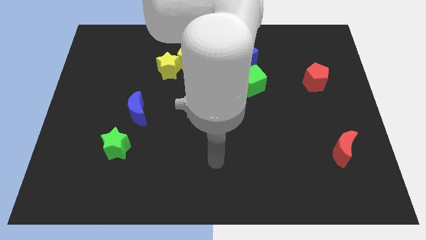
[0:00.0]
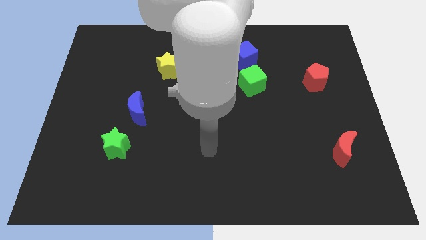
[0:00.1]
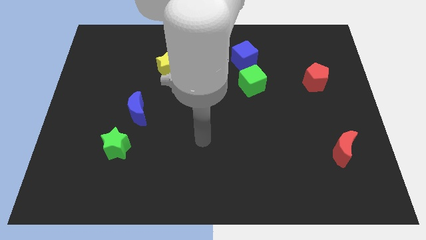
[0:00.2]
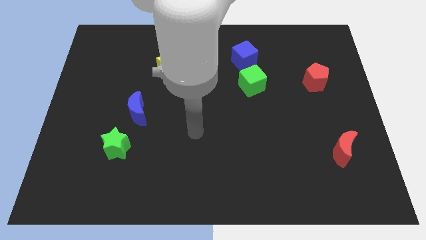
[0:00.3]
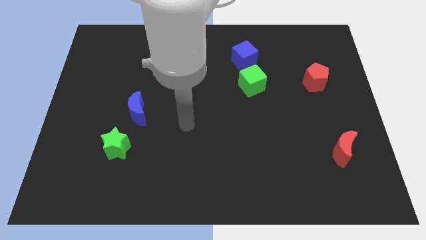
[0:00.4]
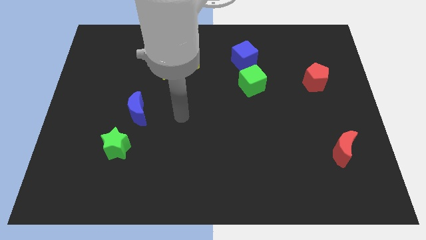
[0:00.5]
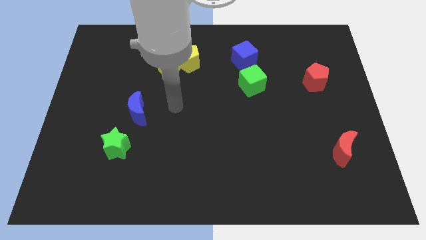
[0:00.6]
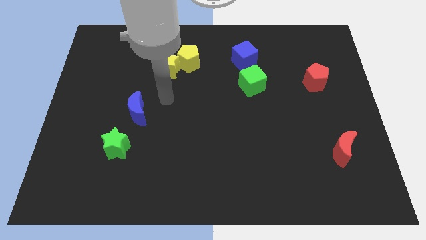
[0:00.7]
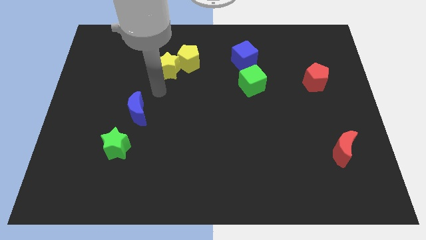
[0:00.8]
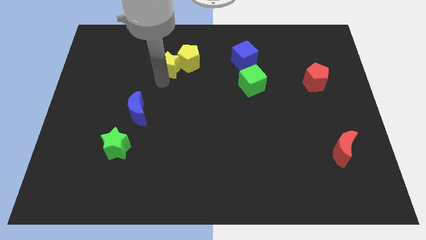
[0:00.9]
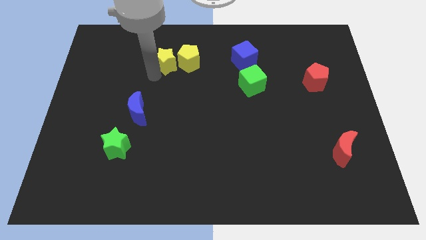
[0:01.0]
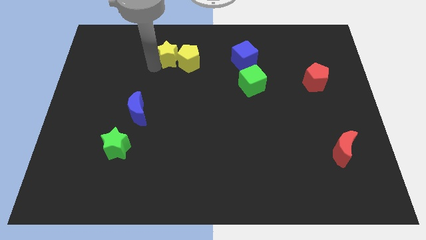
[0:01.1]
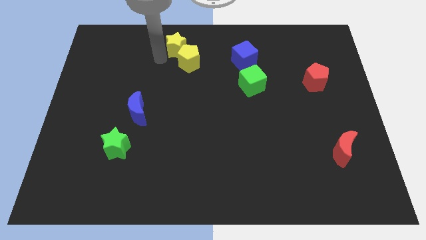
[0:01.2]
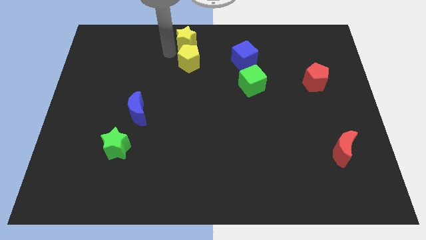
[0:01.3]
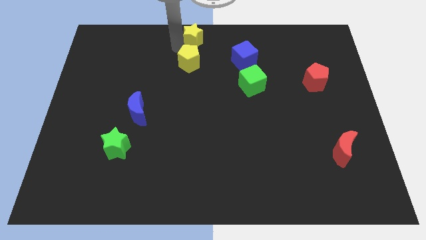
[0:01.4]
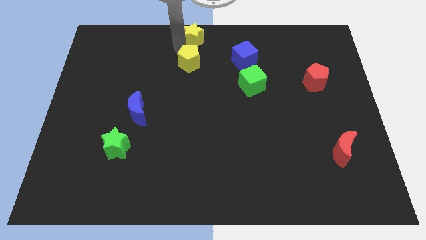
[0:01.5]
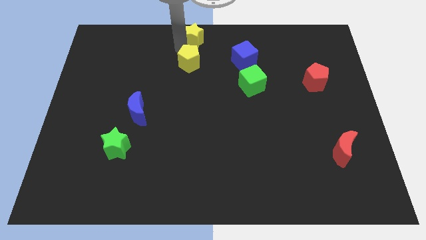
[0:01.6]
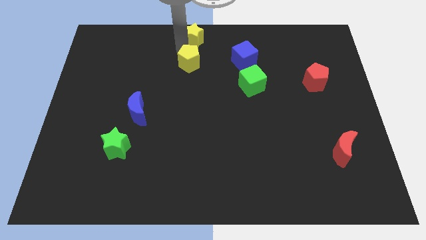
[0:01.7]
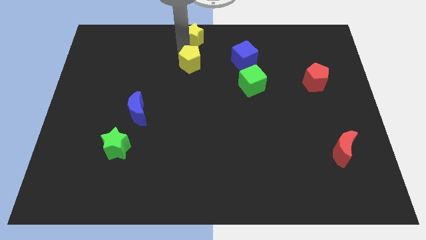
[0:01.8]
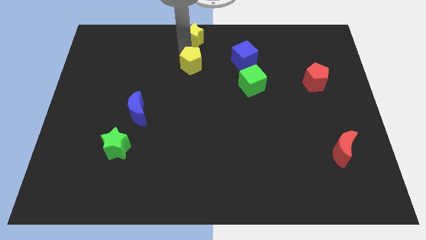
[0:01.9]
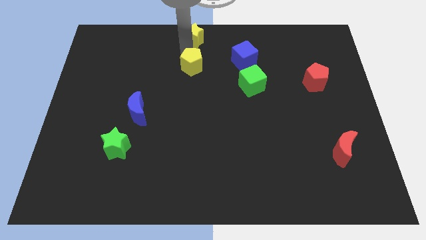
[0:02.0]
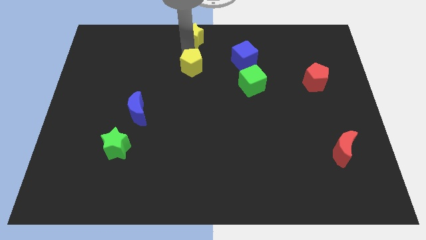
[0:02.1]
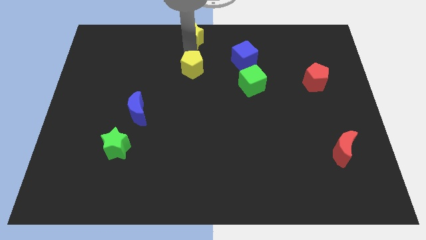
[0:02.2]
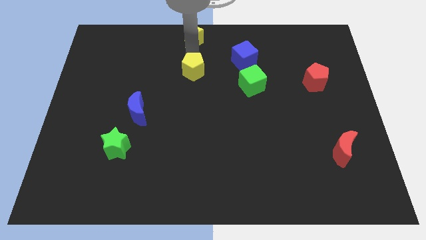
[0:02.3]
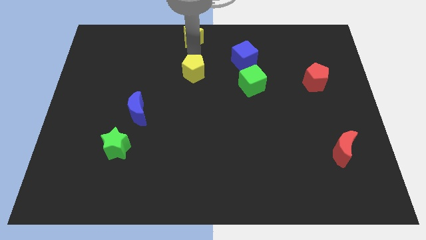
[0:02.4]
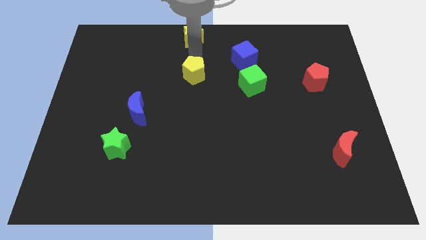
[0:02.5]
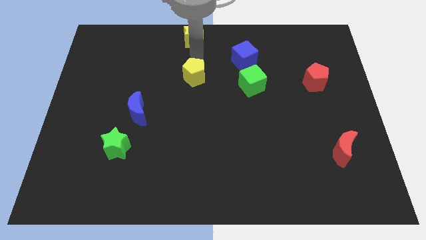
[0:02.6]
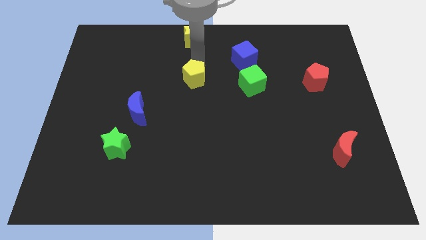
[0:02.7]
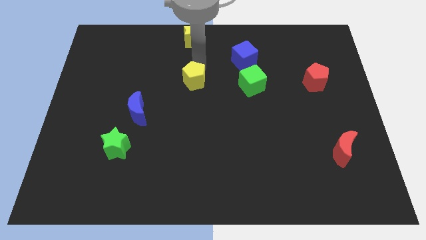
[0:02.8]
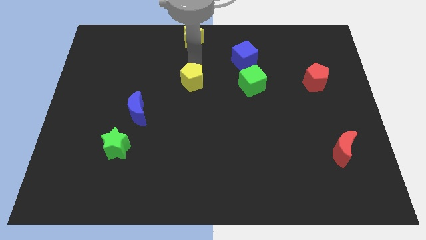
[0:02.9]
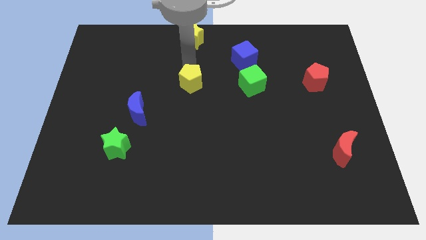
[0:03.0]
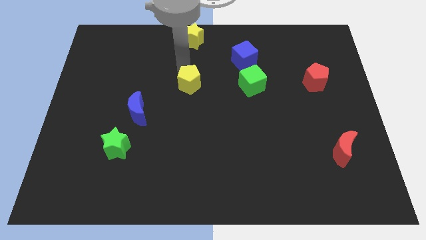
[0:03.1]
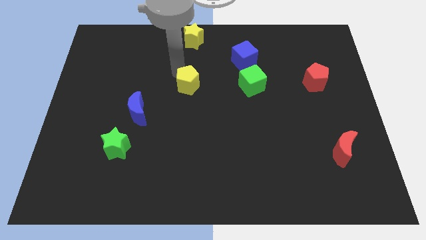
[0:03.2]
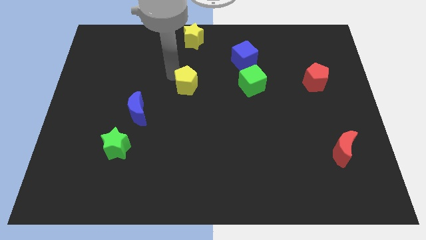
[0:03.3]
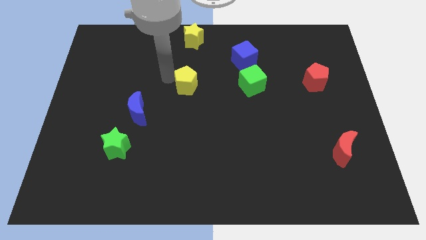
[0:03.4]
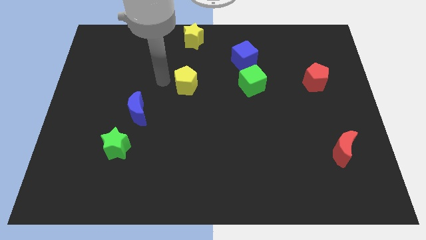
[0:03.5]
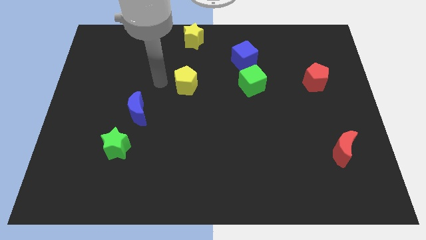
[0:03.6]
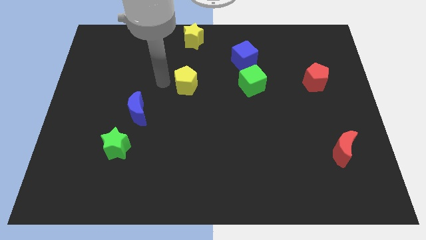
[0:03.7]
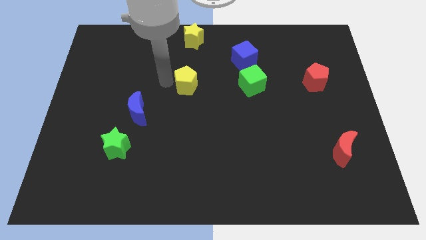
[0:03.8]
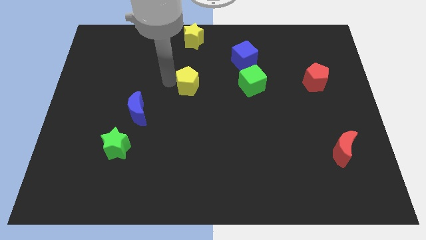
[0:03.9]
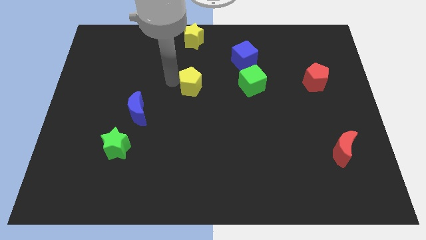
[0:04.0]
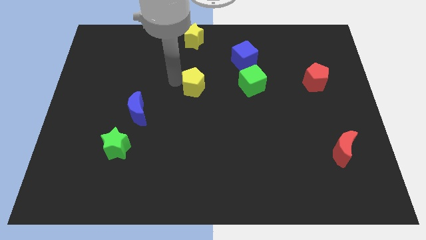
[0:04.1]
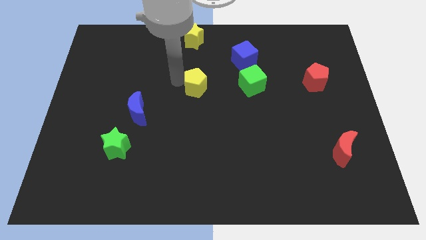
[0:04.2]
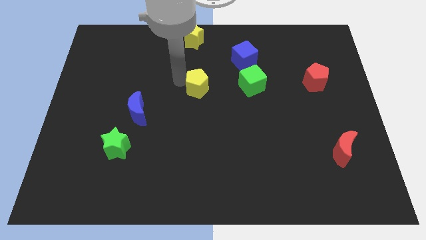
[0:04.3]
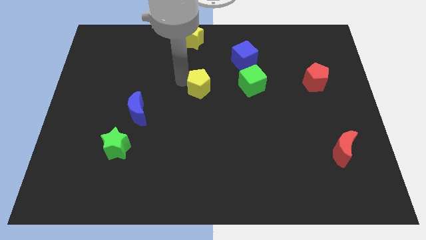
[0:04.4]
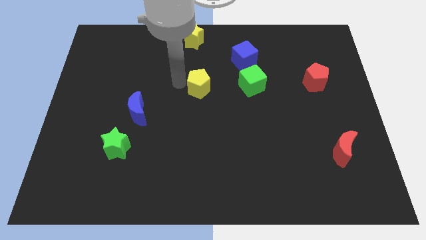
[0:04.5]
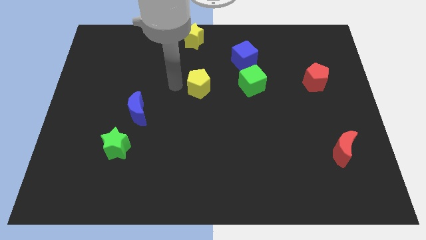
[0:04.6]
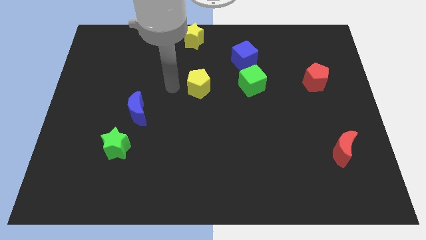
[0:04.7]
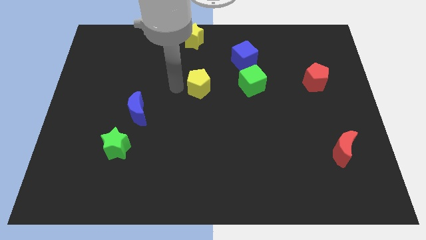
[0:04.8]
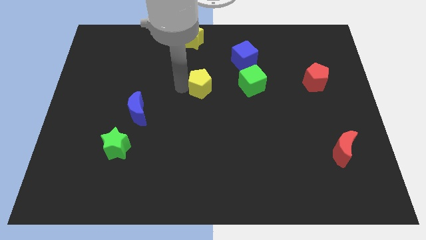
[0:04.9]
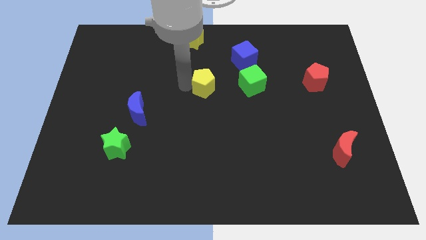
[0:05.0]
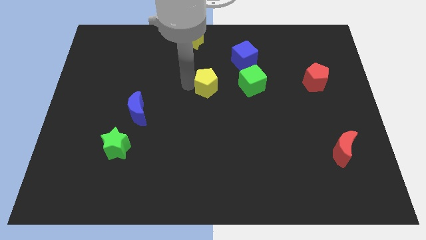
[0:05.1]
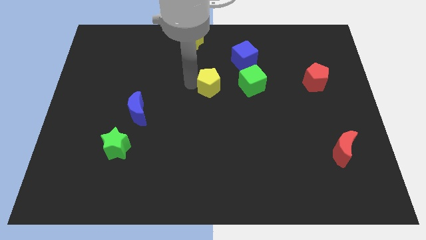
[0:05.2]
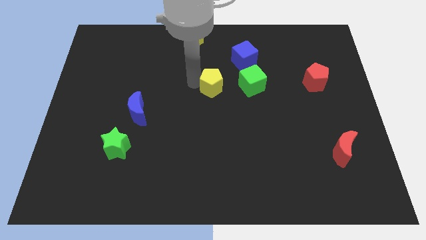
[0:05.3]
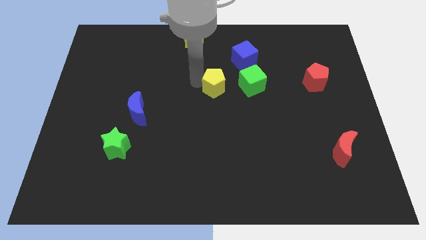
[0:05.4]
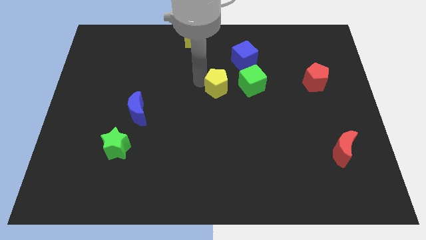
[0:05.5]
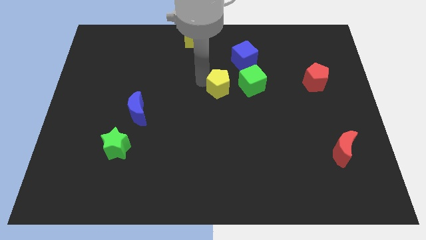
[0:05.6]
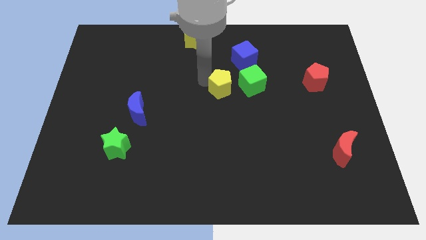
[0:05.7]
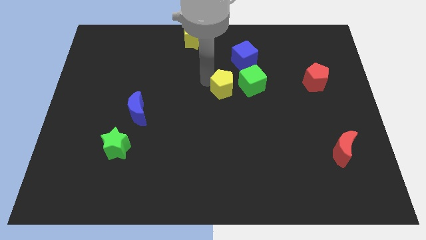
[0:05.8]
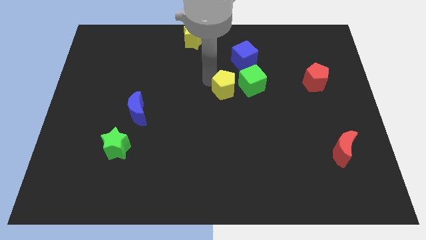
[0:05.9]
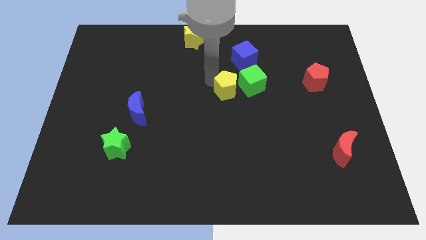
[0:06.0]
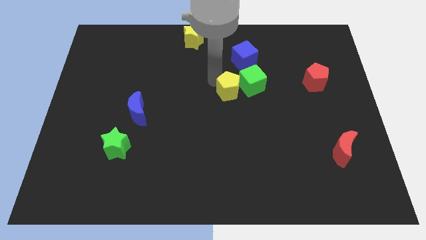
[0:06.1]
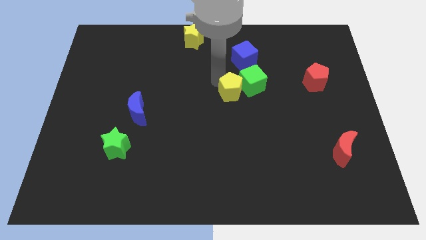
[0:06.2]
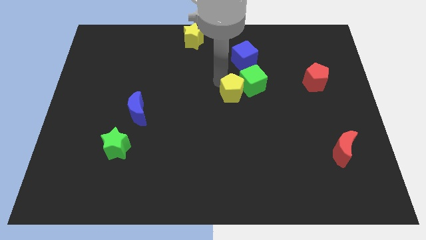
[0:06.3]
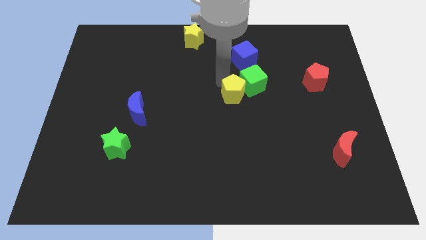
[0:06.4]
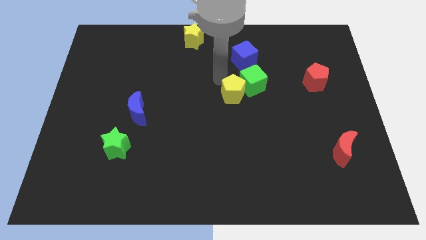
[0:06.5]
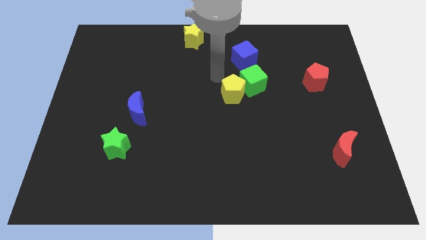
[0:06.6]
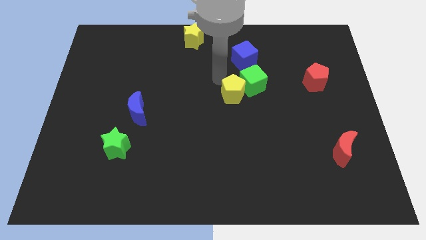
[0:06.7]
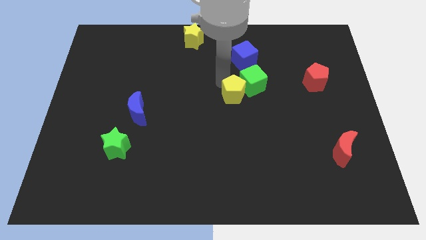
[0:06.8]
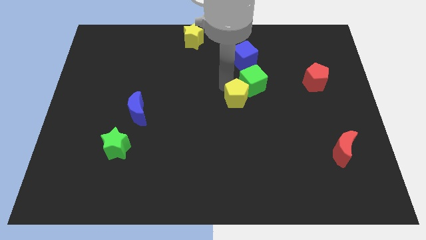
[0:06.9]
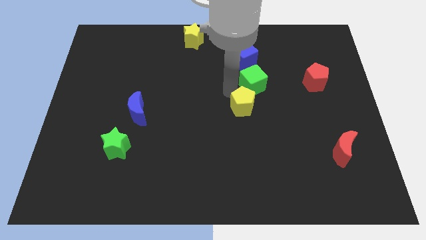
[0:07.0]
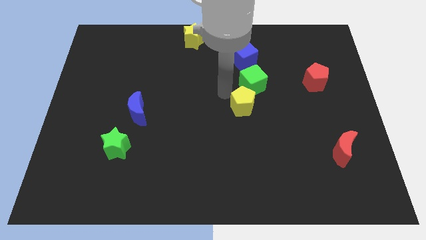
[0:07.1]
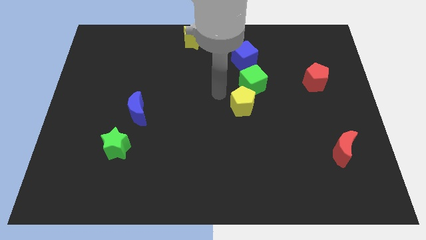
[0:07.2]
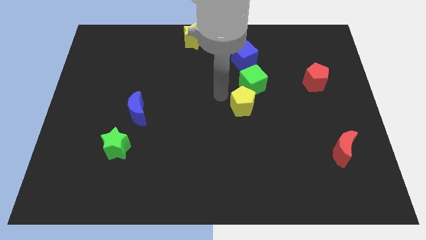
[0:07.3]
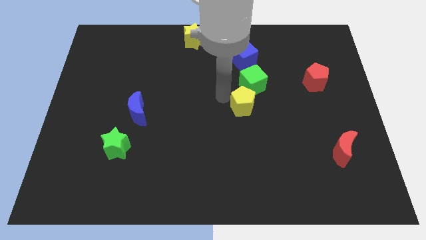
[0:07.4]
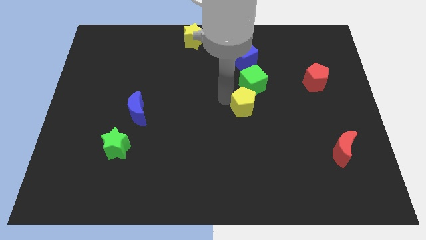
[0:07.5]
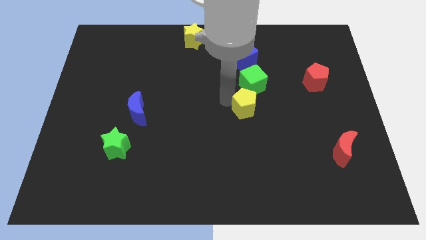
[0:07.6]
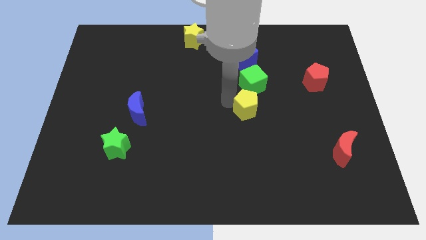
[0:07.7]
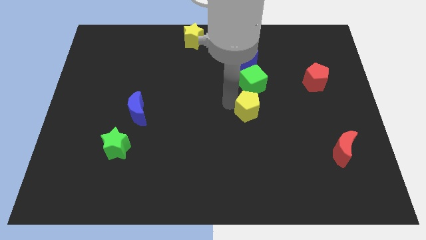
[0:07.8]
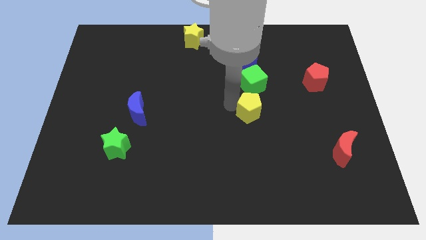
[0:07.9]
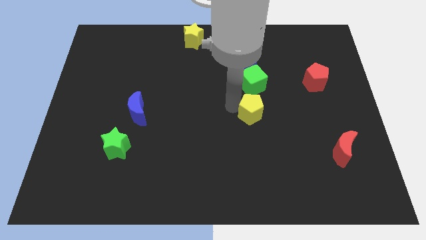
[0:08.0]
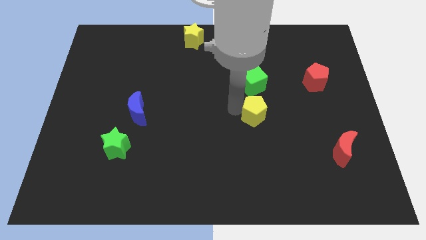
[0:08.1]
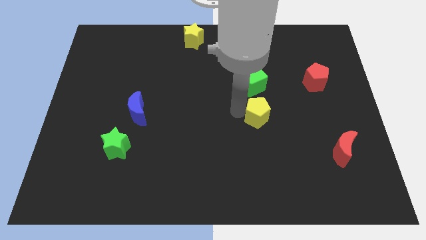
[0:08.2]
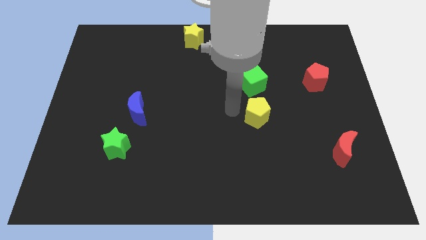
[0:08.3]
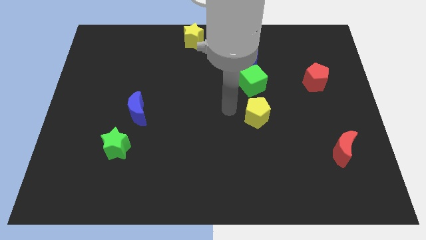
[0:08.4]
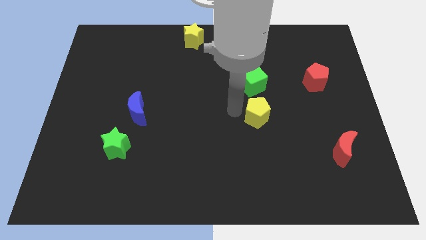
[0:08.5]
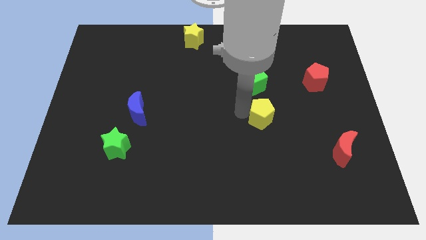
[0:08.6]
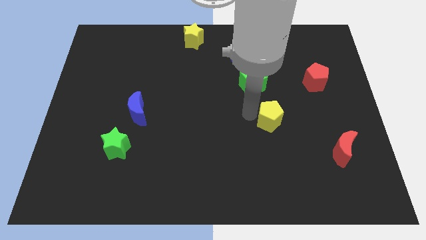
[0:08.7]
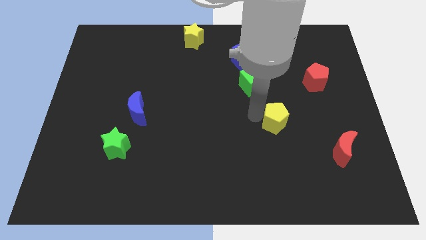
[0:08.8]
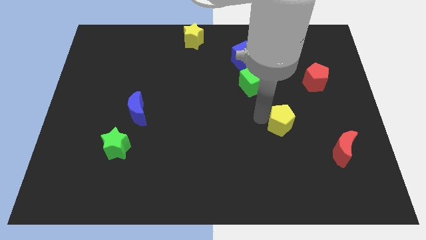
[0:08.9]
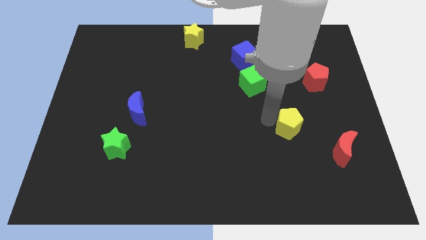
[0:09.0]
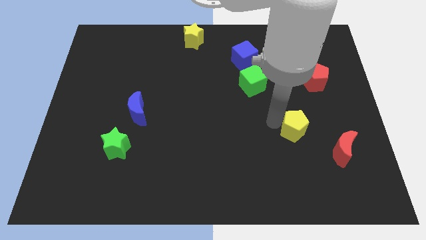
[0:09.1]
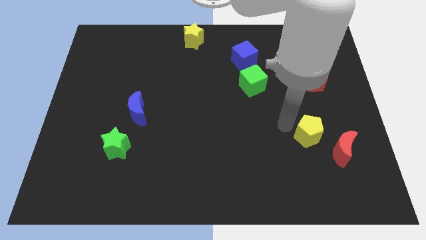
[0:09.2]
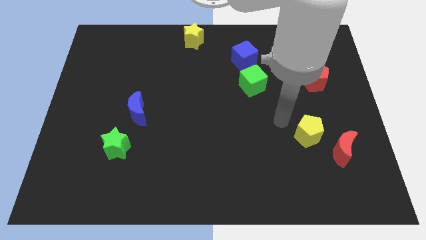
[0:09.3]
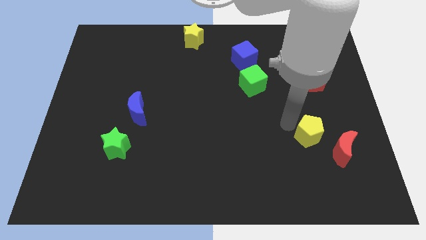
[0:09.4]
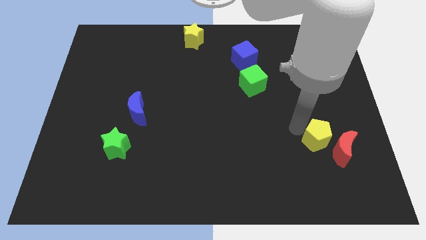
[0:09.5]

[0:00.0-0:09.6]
push the yellow pentagon towards the red moon
